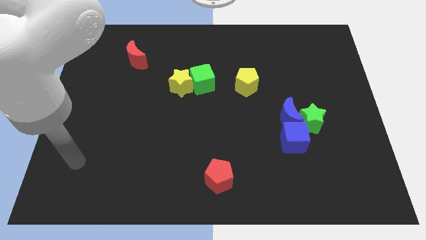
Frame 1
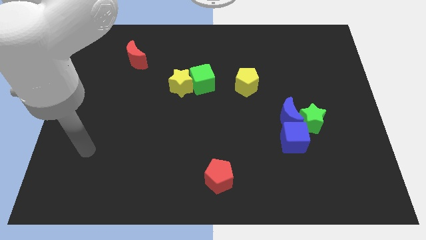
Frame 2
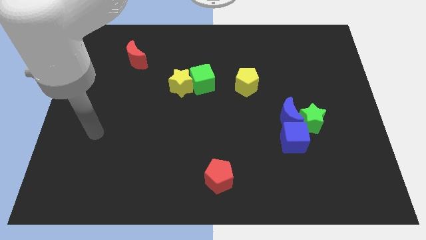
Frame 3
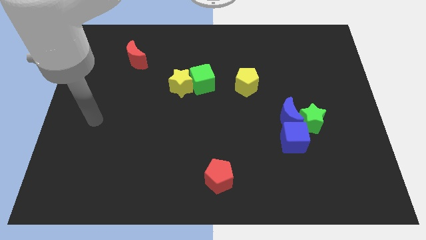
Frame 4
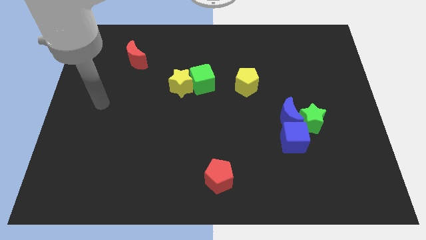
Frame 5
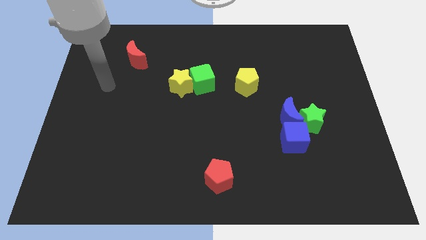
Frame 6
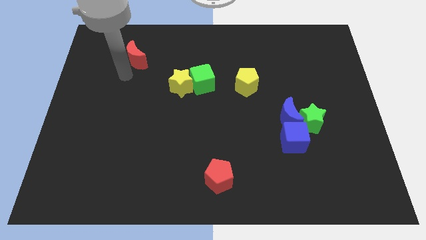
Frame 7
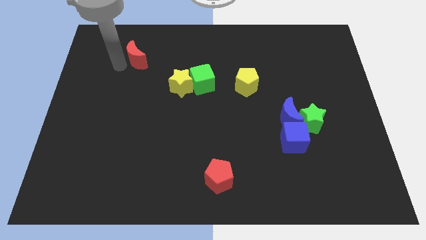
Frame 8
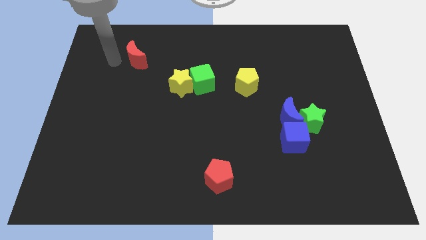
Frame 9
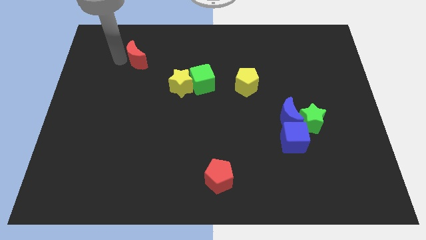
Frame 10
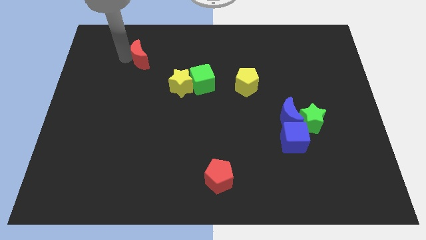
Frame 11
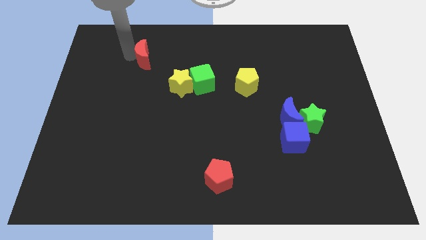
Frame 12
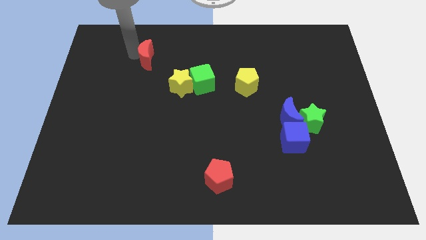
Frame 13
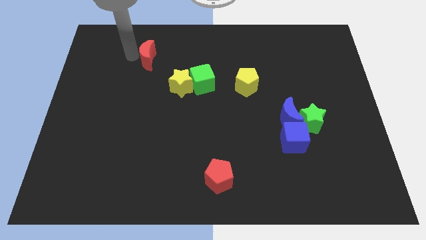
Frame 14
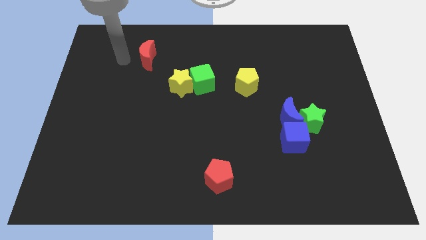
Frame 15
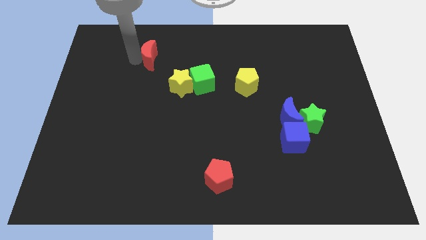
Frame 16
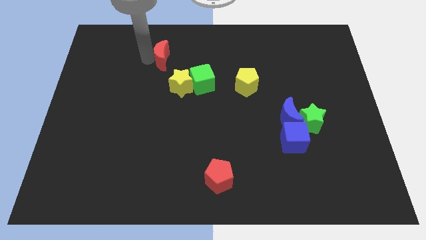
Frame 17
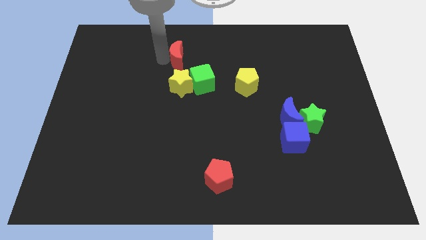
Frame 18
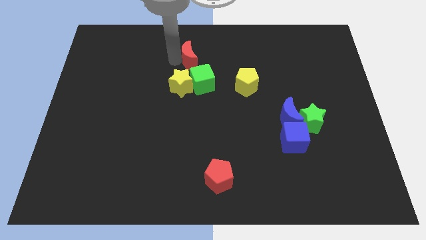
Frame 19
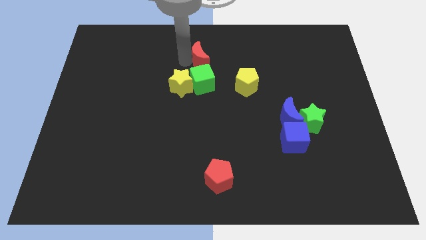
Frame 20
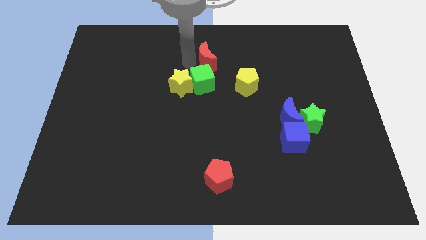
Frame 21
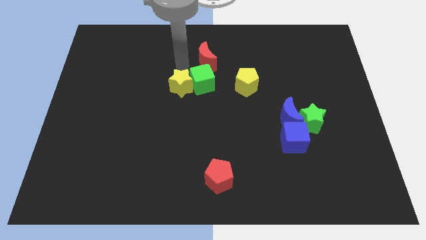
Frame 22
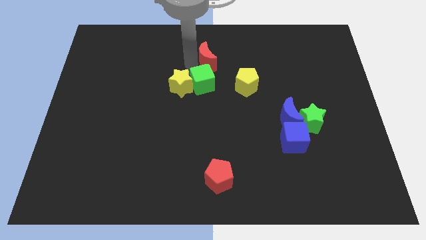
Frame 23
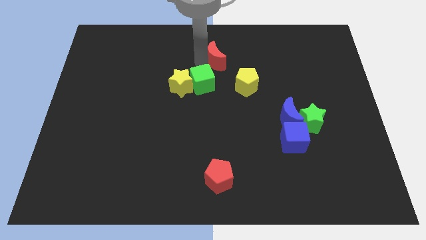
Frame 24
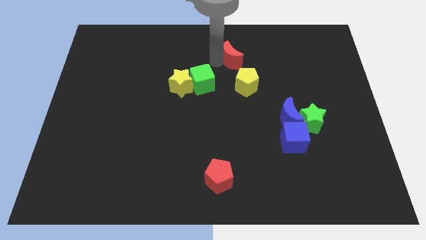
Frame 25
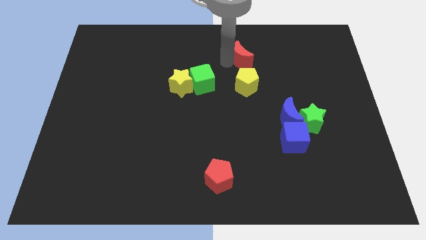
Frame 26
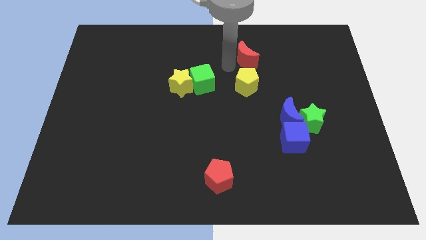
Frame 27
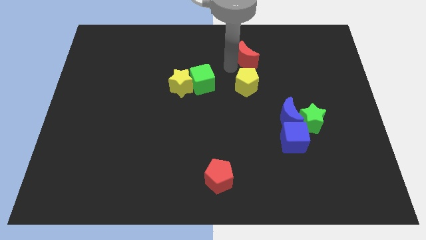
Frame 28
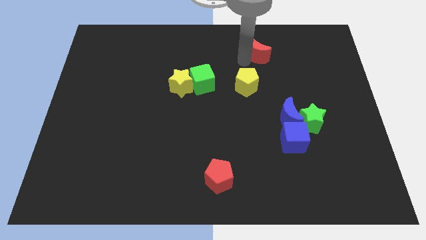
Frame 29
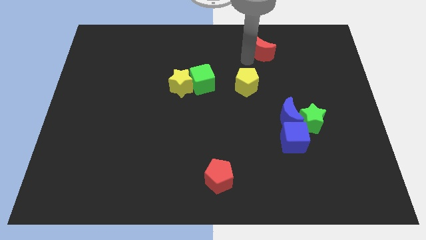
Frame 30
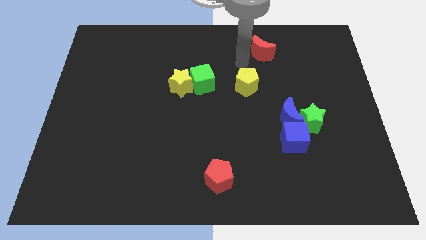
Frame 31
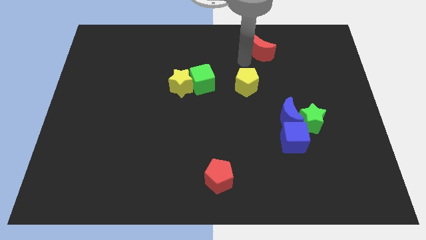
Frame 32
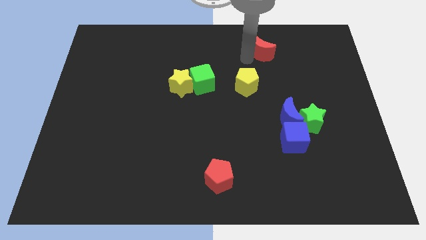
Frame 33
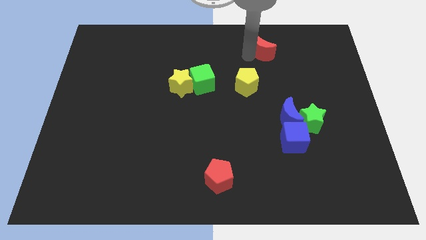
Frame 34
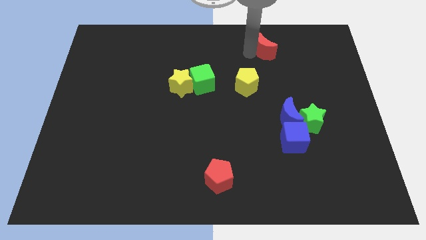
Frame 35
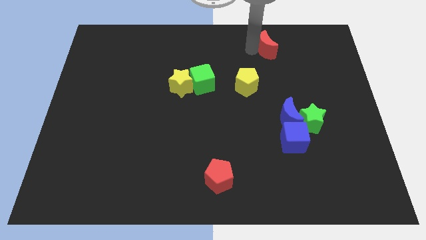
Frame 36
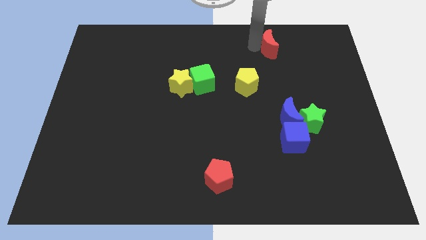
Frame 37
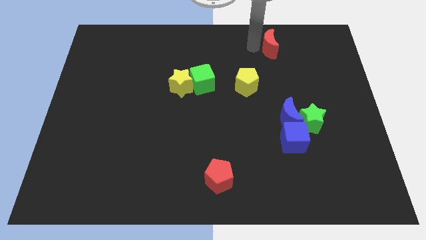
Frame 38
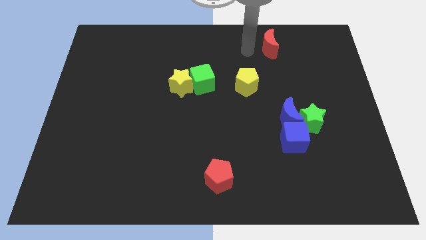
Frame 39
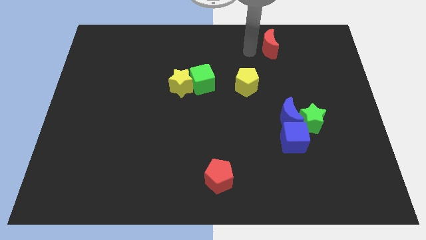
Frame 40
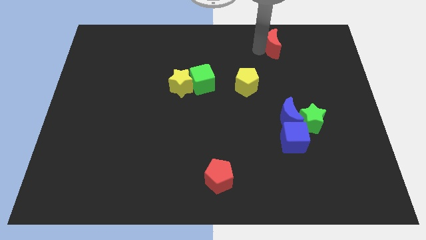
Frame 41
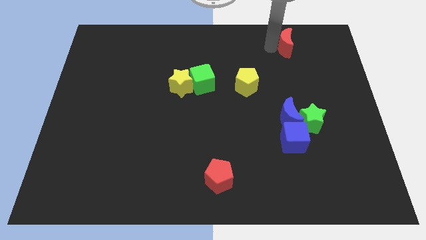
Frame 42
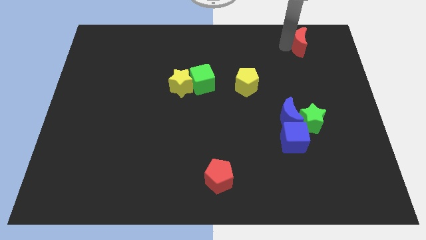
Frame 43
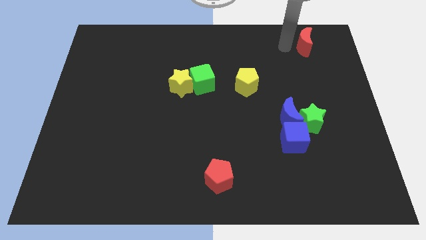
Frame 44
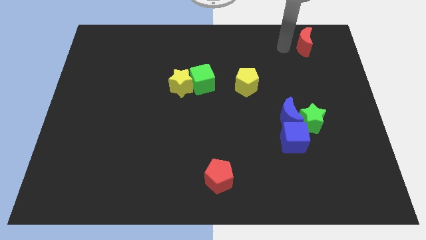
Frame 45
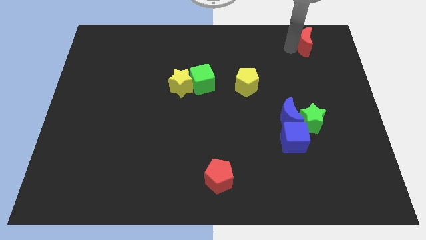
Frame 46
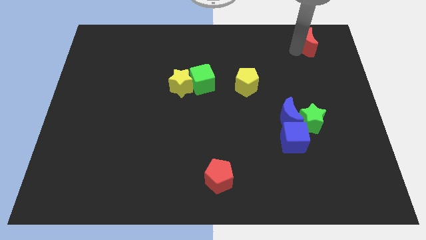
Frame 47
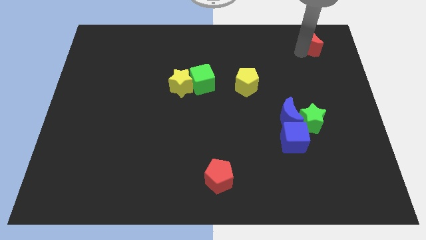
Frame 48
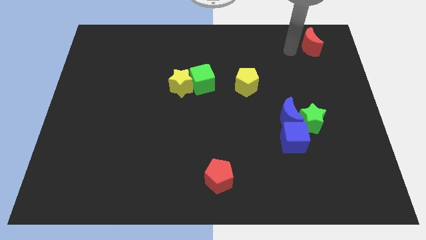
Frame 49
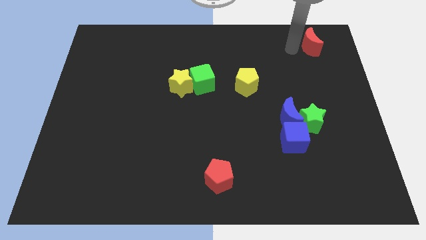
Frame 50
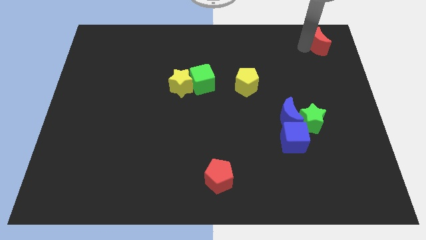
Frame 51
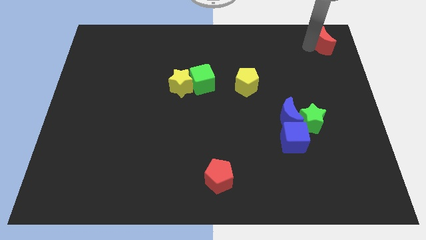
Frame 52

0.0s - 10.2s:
push the red moon to the upper right corner
